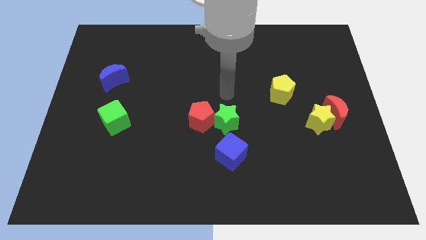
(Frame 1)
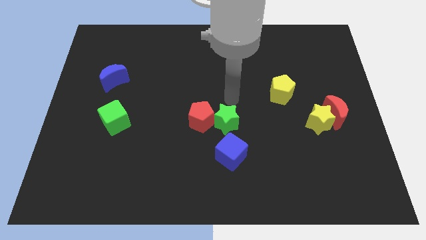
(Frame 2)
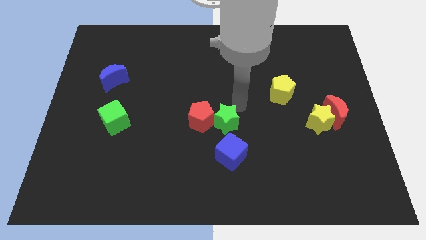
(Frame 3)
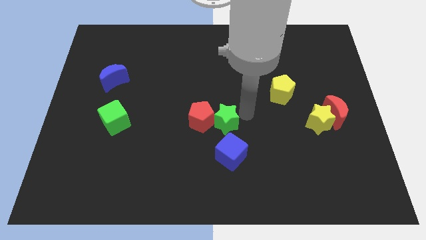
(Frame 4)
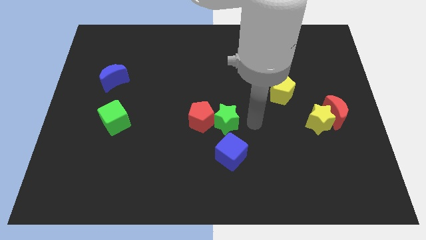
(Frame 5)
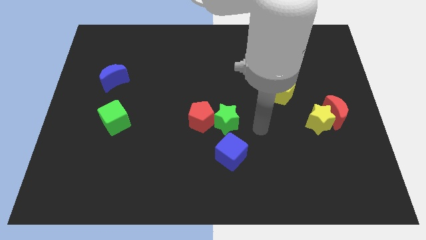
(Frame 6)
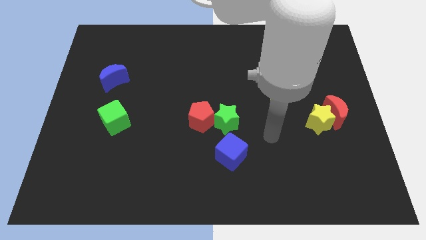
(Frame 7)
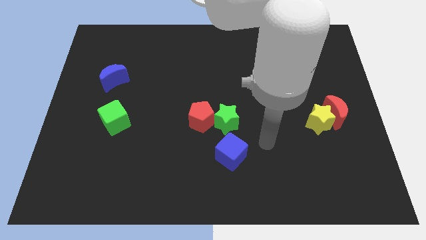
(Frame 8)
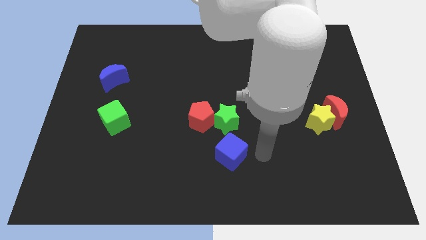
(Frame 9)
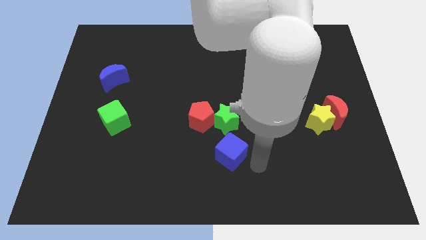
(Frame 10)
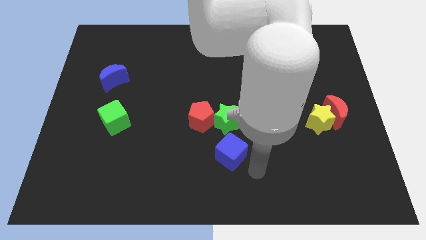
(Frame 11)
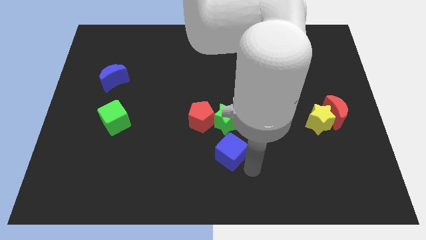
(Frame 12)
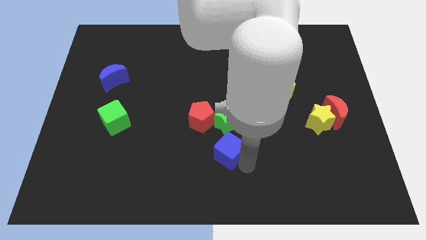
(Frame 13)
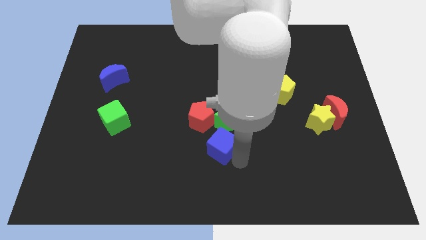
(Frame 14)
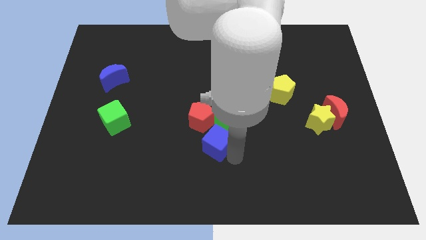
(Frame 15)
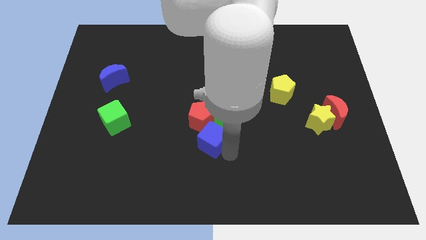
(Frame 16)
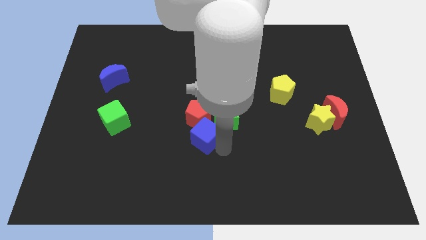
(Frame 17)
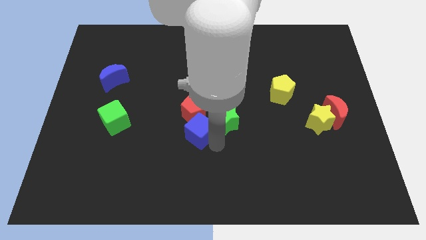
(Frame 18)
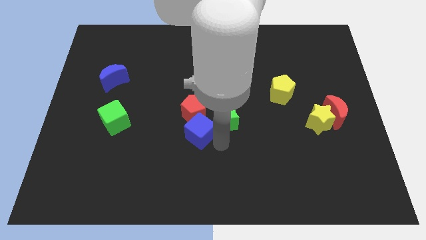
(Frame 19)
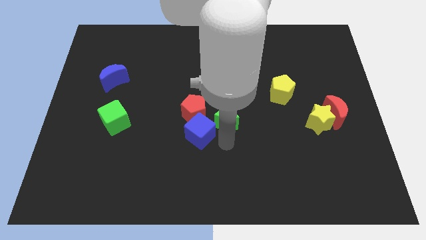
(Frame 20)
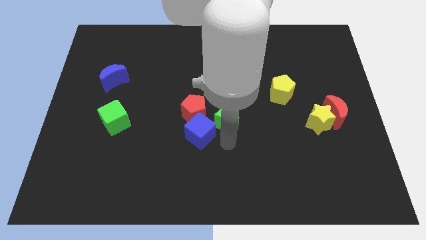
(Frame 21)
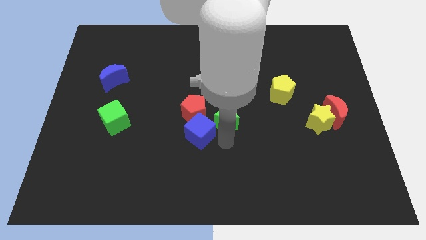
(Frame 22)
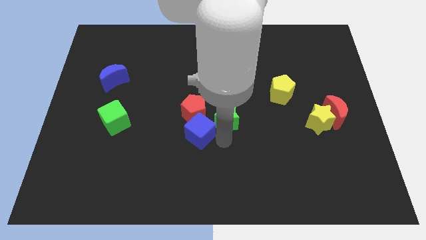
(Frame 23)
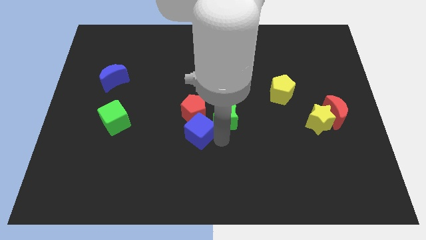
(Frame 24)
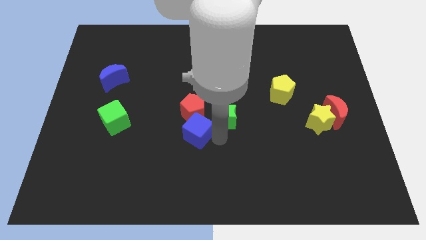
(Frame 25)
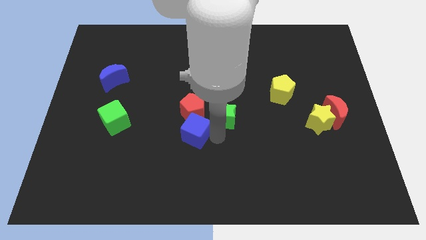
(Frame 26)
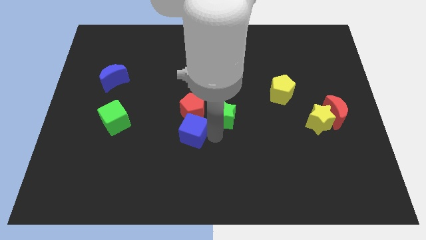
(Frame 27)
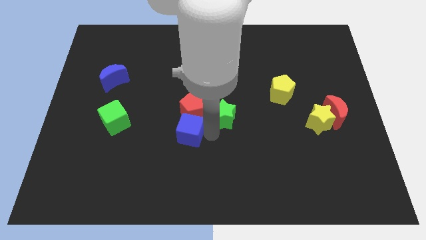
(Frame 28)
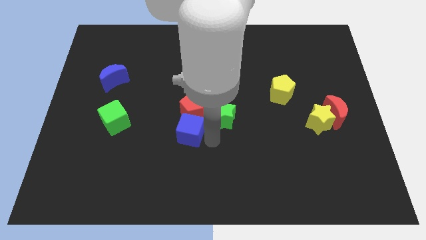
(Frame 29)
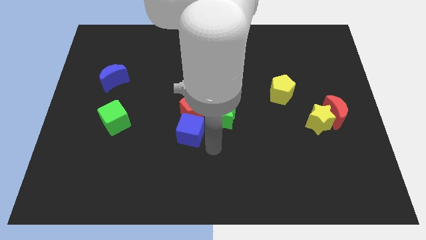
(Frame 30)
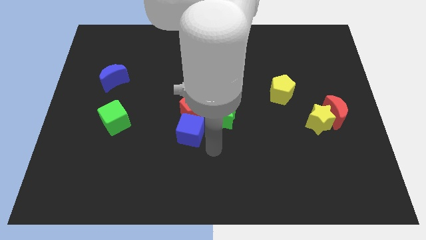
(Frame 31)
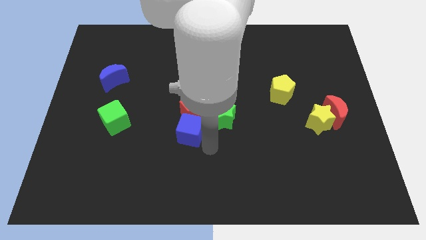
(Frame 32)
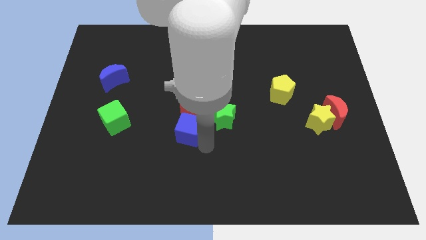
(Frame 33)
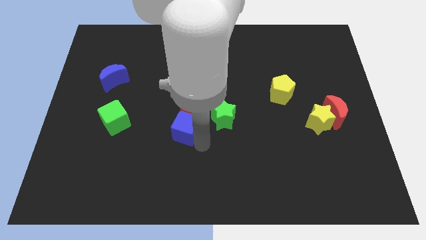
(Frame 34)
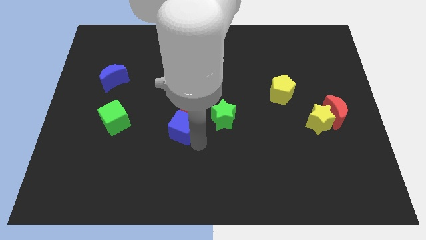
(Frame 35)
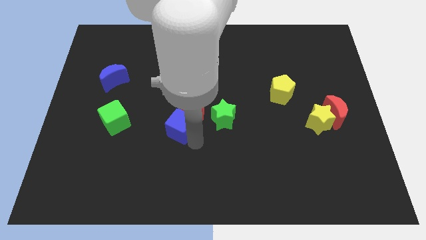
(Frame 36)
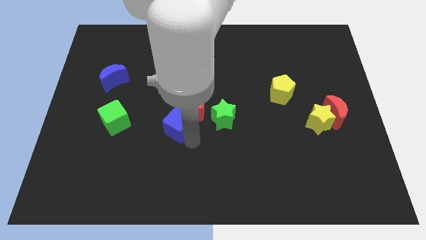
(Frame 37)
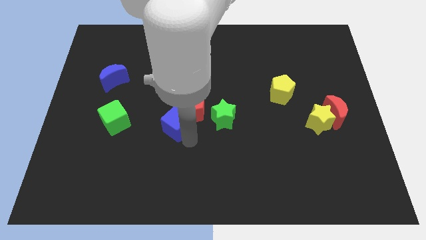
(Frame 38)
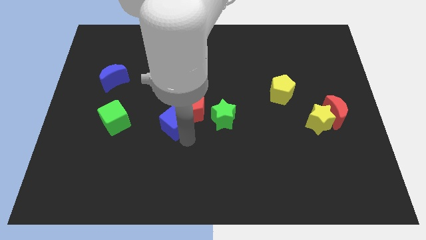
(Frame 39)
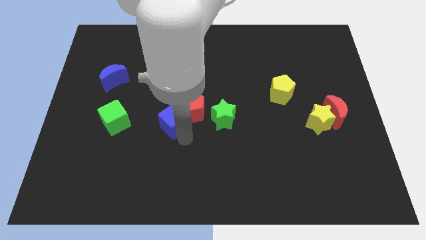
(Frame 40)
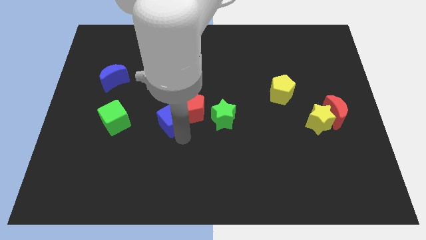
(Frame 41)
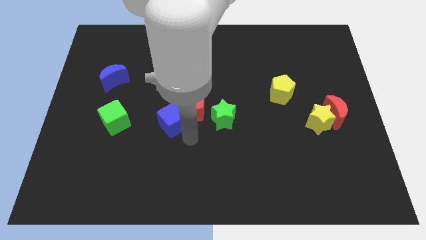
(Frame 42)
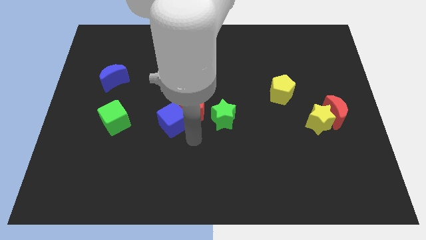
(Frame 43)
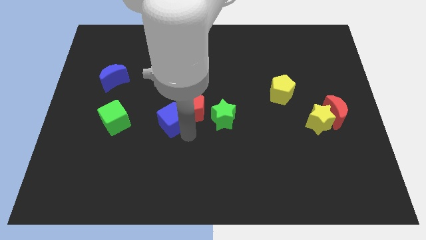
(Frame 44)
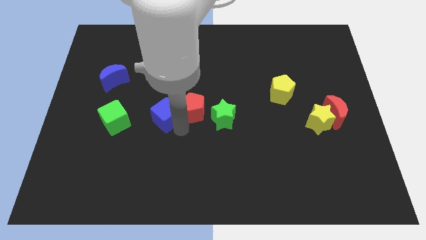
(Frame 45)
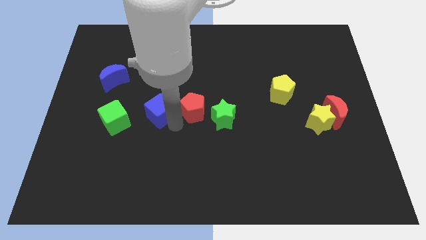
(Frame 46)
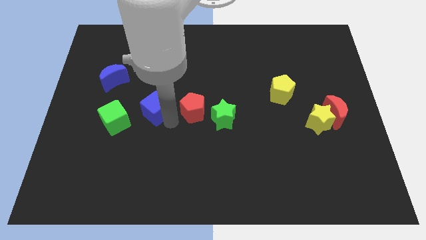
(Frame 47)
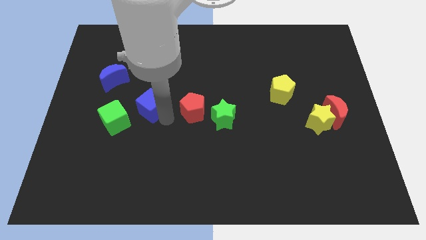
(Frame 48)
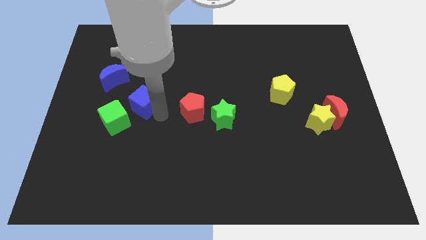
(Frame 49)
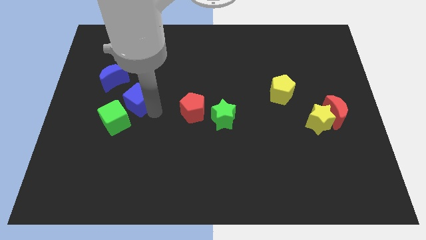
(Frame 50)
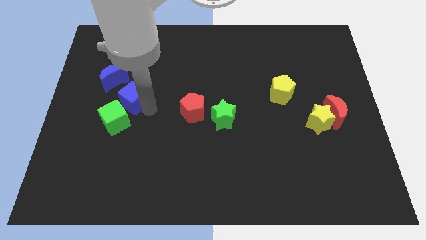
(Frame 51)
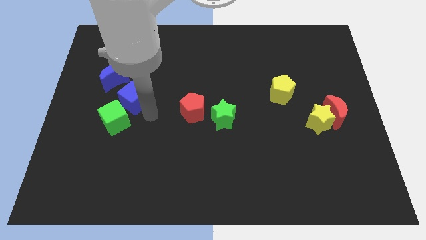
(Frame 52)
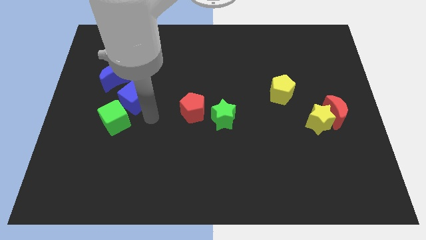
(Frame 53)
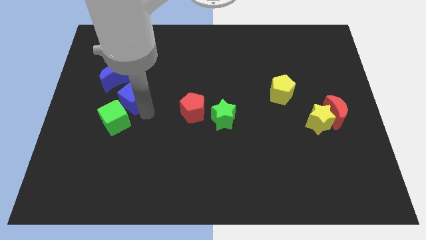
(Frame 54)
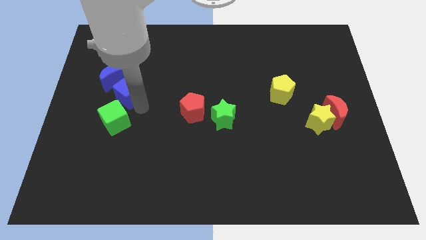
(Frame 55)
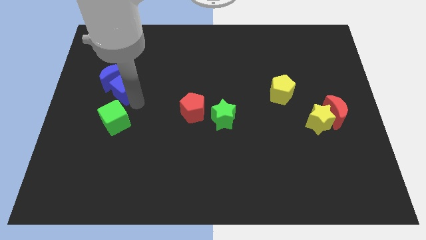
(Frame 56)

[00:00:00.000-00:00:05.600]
move the blue cube next to the blue moon

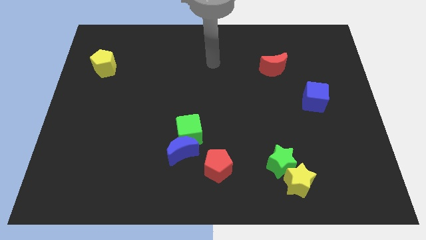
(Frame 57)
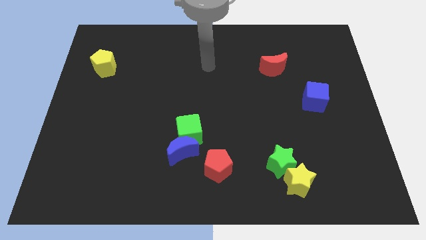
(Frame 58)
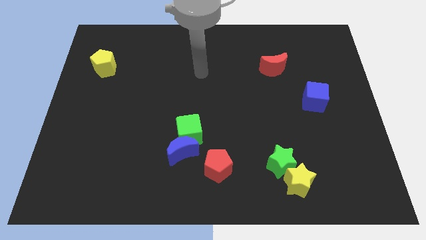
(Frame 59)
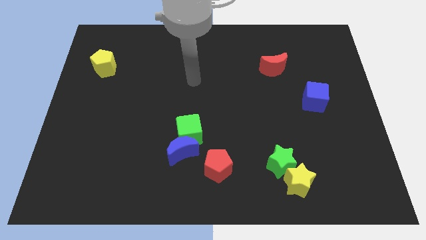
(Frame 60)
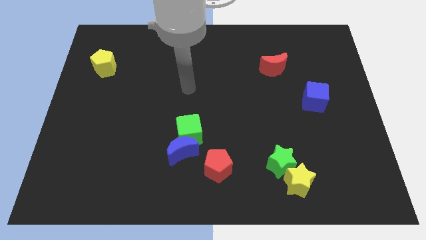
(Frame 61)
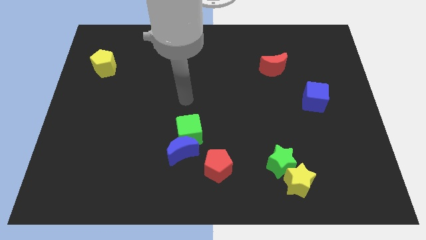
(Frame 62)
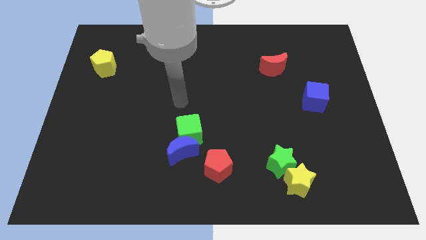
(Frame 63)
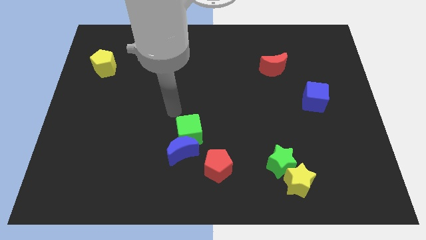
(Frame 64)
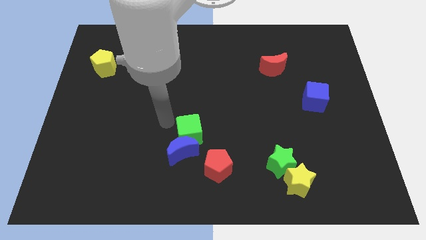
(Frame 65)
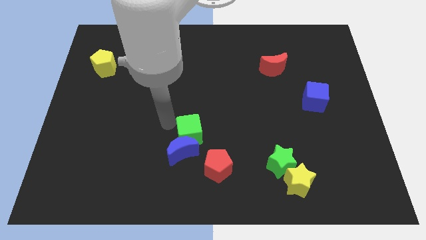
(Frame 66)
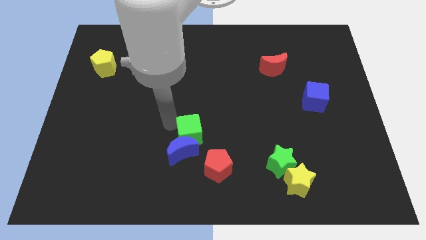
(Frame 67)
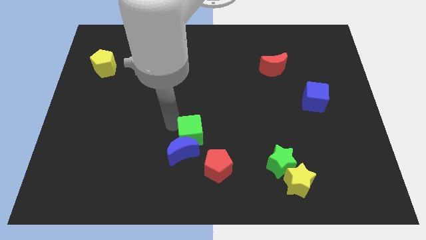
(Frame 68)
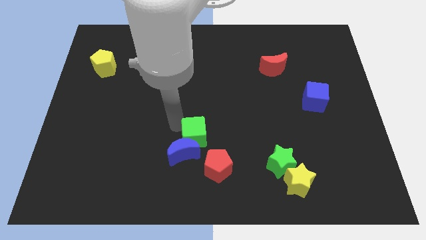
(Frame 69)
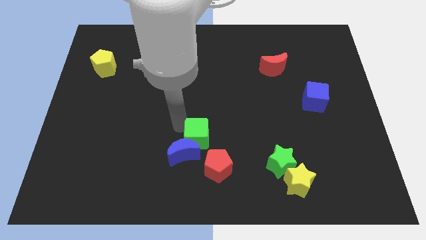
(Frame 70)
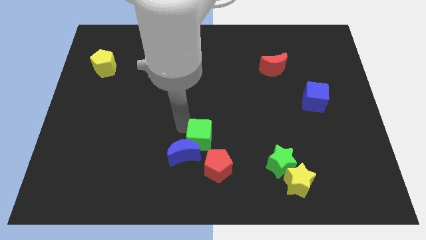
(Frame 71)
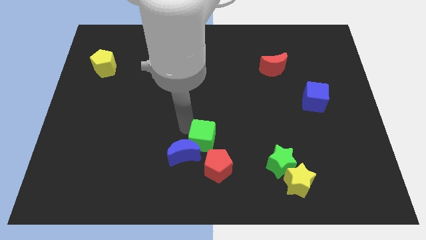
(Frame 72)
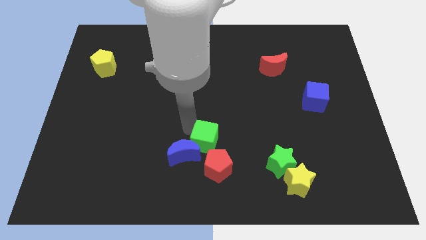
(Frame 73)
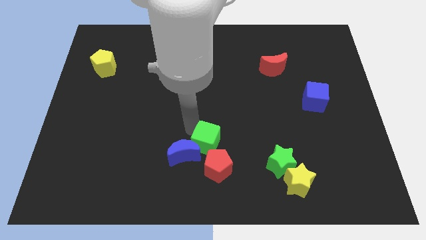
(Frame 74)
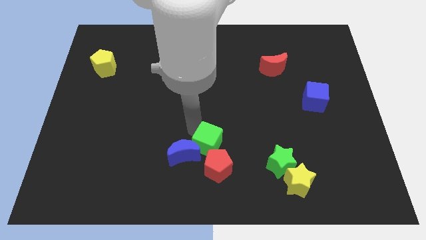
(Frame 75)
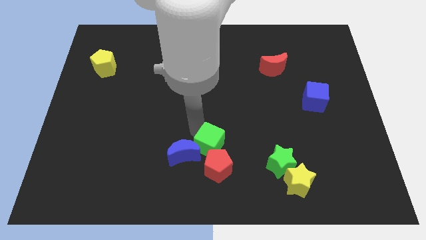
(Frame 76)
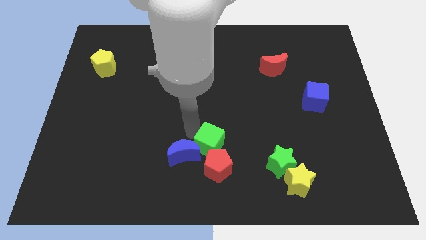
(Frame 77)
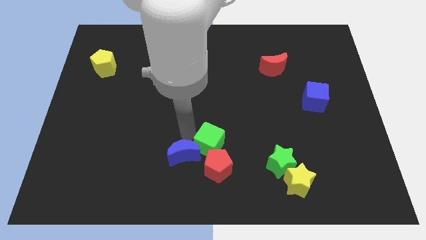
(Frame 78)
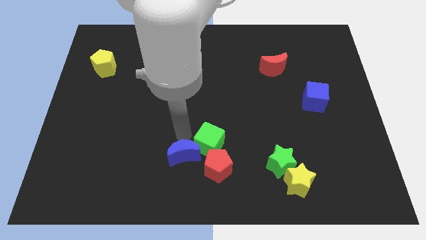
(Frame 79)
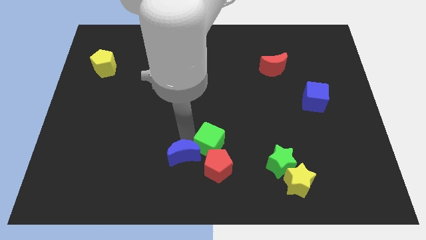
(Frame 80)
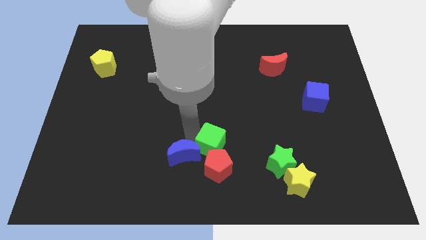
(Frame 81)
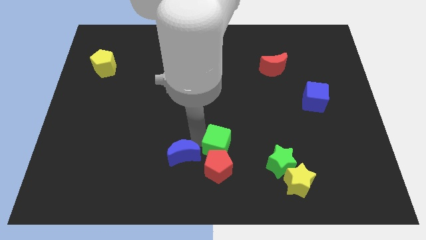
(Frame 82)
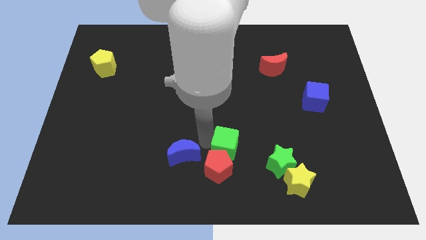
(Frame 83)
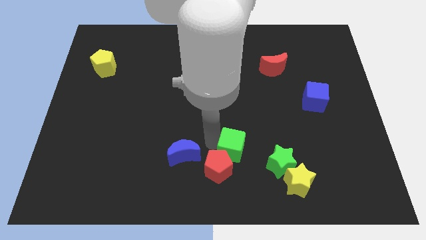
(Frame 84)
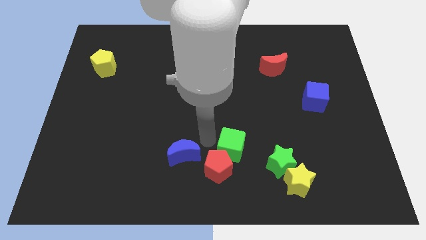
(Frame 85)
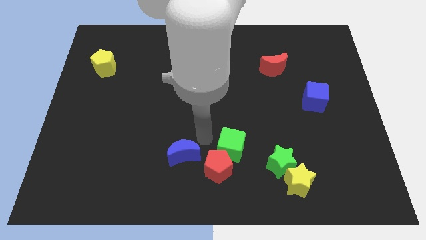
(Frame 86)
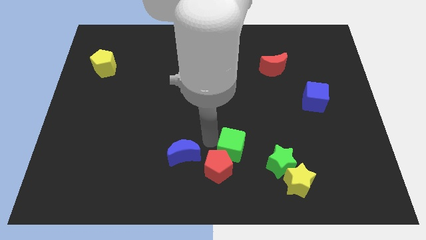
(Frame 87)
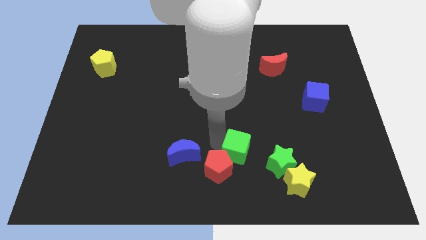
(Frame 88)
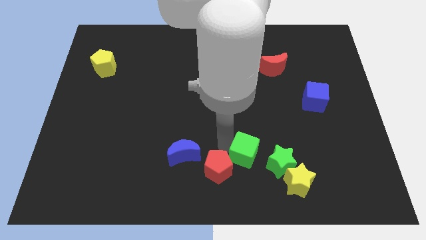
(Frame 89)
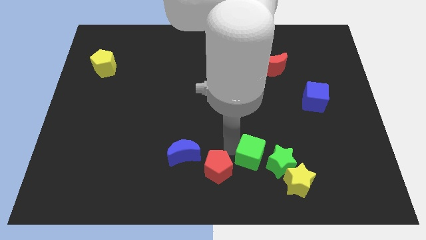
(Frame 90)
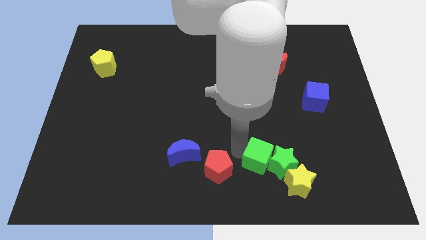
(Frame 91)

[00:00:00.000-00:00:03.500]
push the green cube close to the green star
